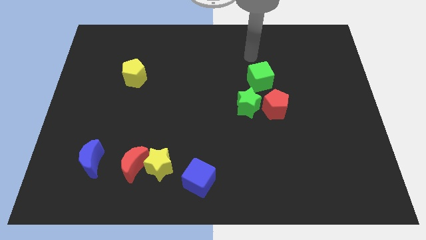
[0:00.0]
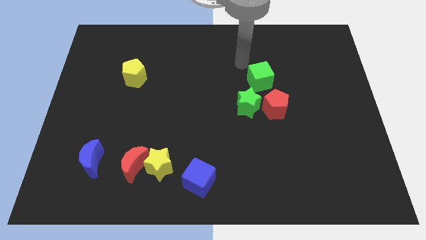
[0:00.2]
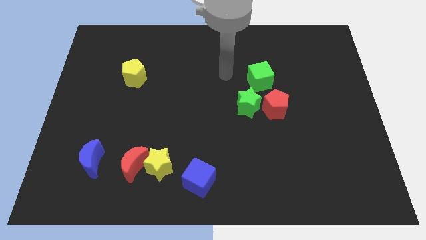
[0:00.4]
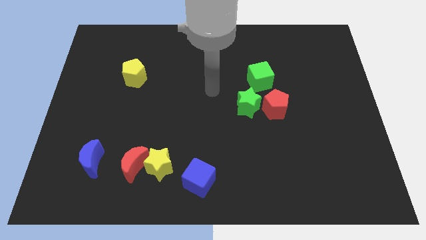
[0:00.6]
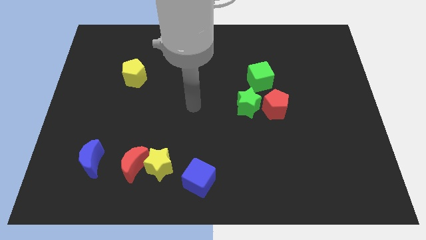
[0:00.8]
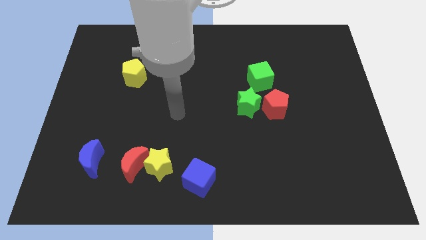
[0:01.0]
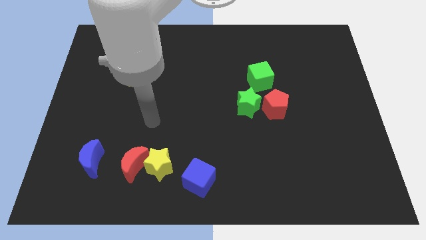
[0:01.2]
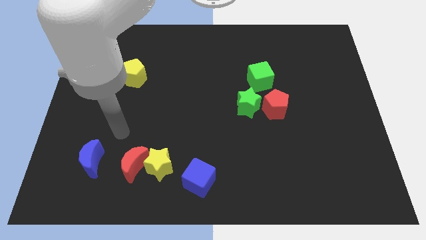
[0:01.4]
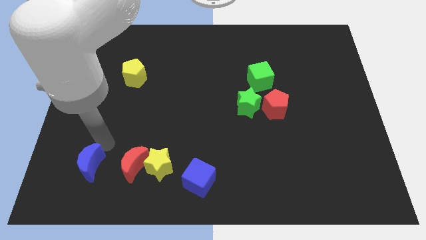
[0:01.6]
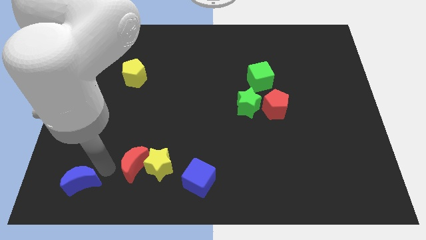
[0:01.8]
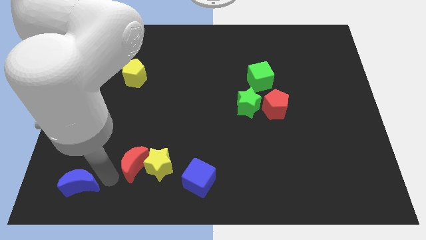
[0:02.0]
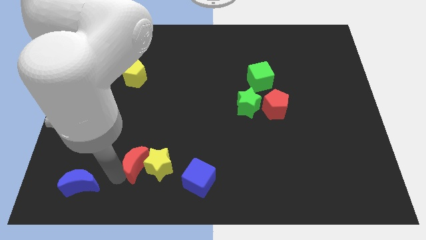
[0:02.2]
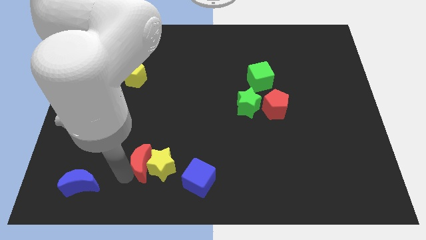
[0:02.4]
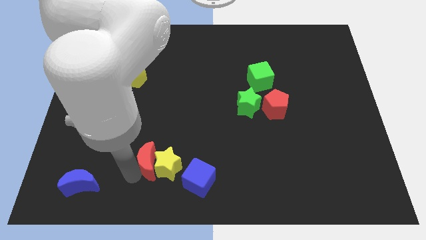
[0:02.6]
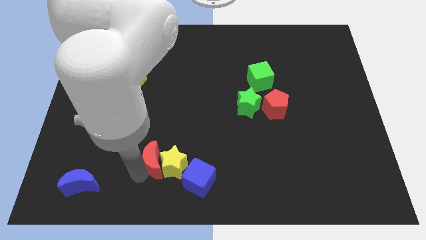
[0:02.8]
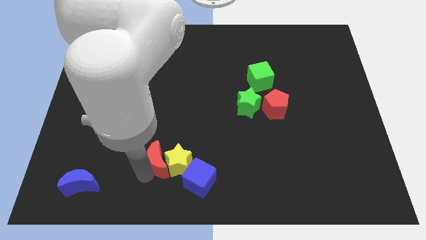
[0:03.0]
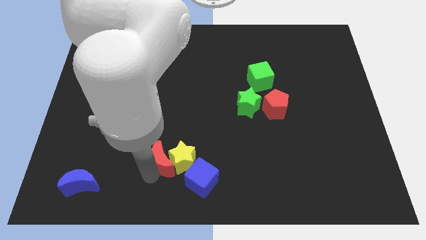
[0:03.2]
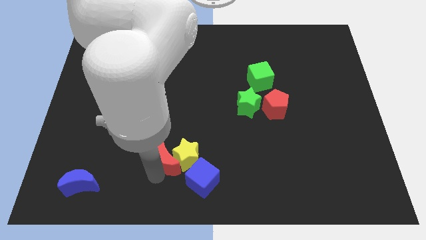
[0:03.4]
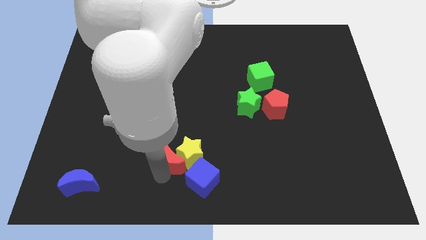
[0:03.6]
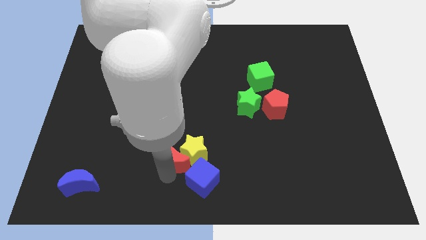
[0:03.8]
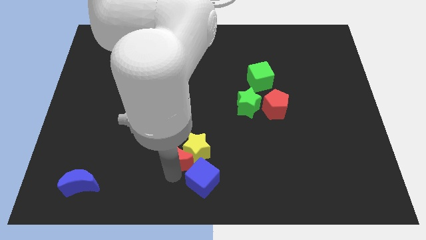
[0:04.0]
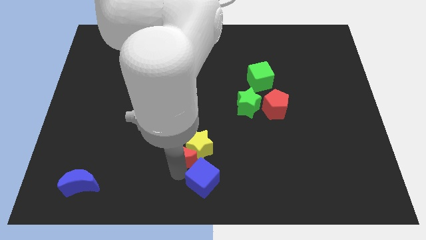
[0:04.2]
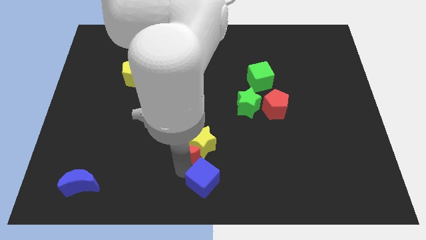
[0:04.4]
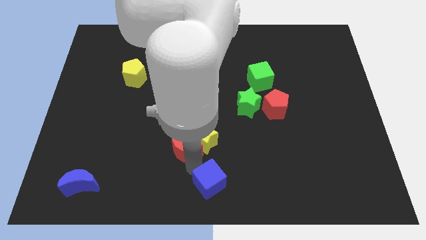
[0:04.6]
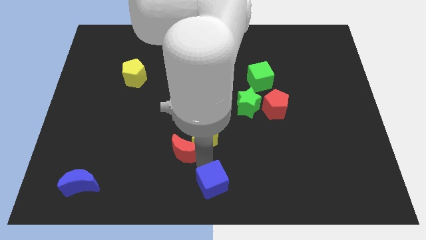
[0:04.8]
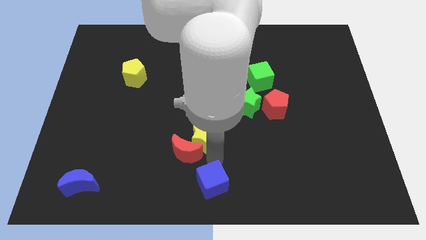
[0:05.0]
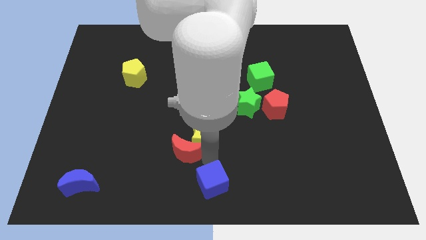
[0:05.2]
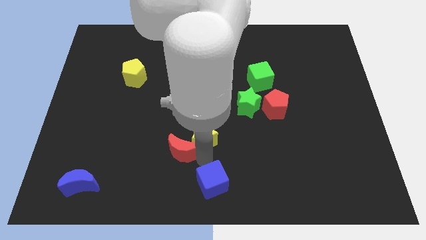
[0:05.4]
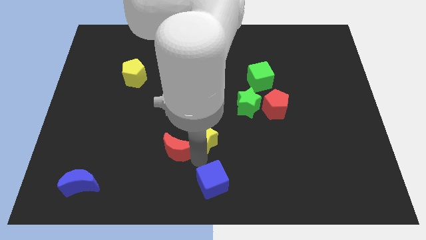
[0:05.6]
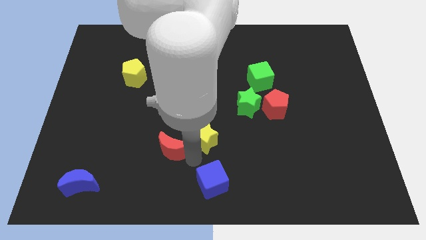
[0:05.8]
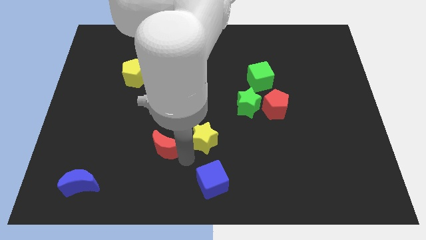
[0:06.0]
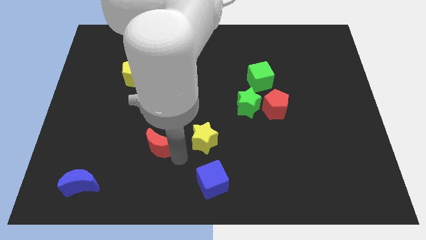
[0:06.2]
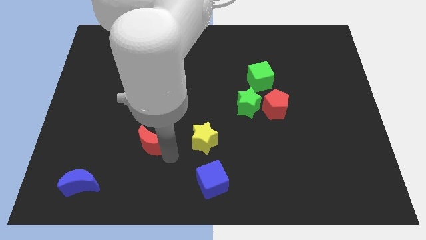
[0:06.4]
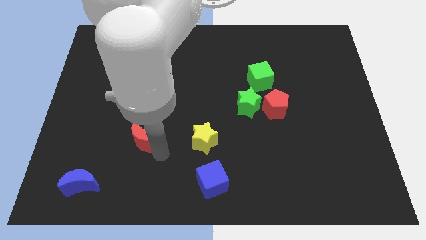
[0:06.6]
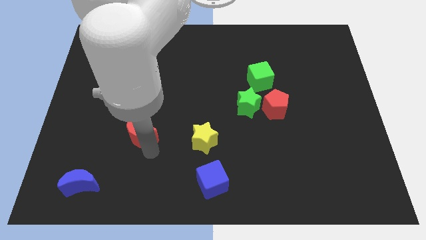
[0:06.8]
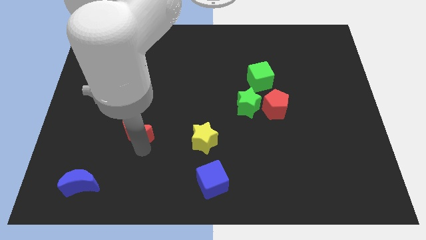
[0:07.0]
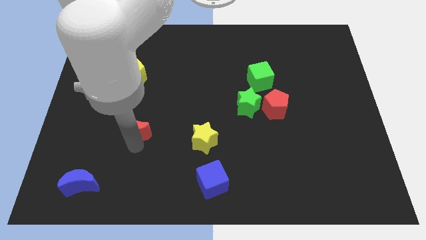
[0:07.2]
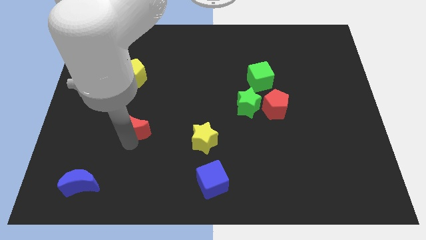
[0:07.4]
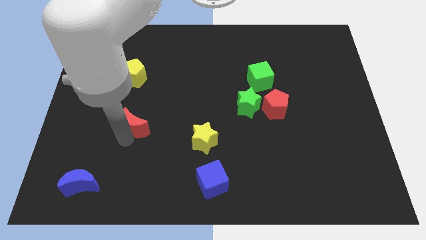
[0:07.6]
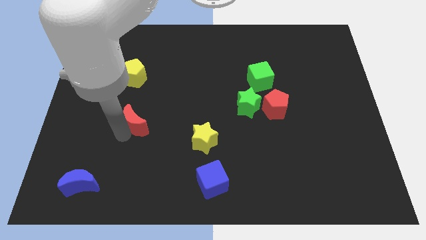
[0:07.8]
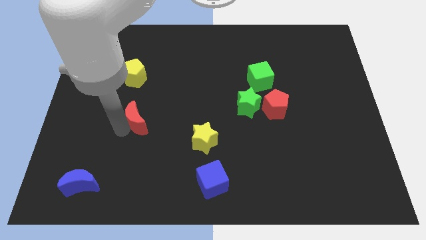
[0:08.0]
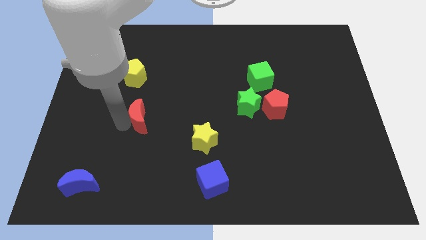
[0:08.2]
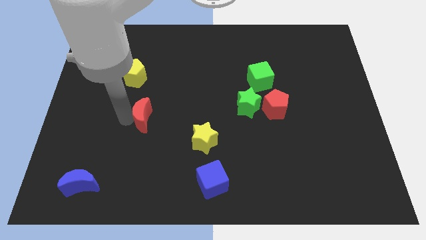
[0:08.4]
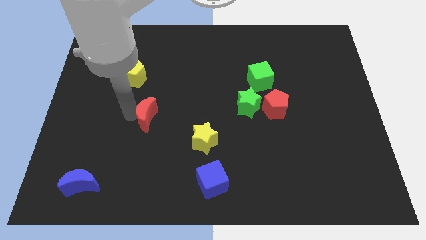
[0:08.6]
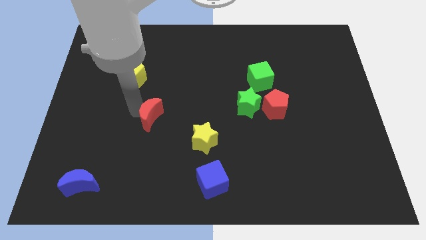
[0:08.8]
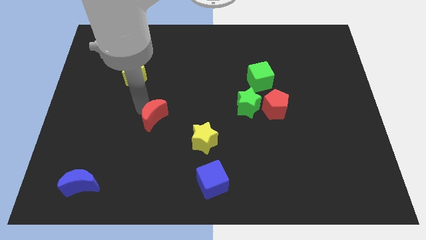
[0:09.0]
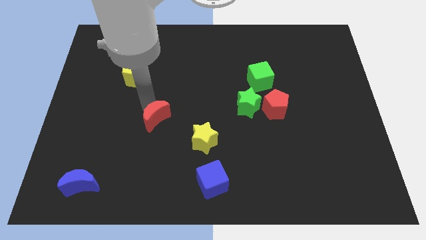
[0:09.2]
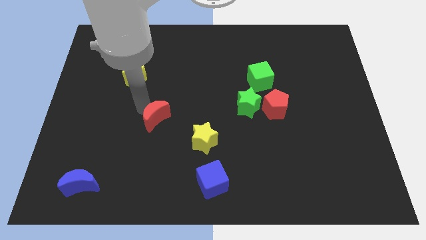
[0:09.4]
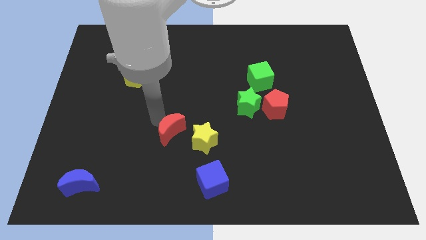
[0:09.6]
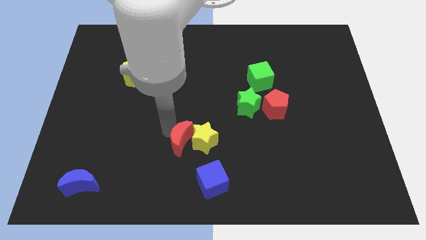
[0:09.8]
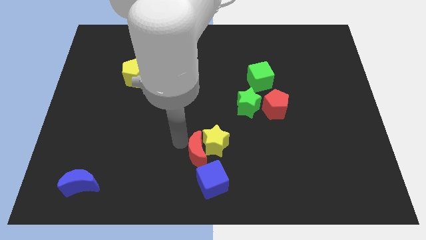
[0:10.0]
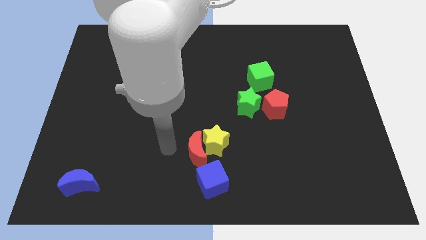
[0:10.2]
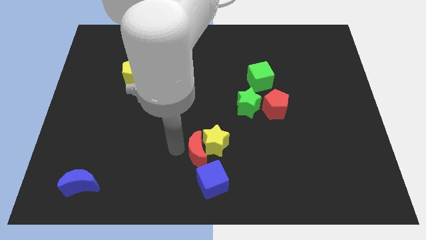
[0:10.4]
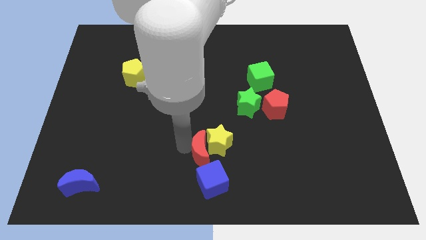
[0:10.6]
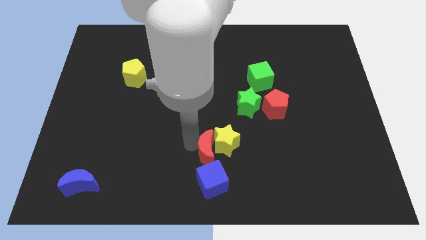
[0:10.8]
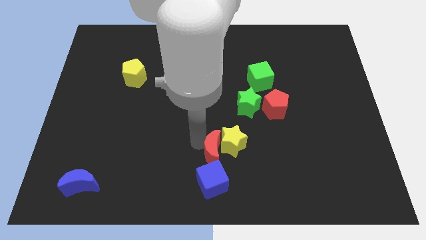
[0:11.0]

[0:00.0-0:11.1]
put the red moon to the top right side of the blue cube

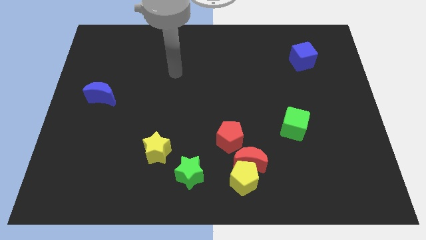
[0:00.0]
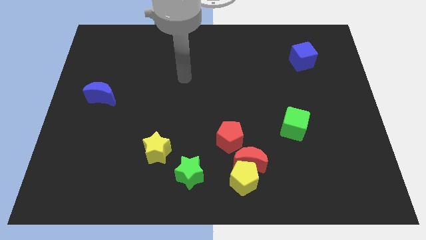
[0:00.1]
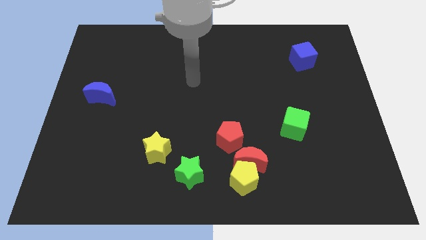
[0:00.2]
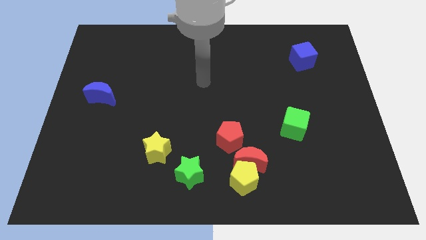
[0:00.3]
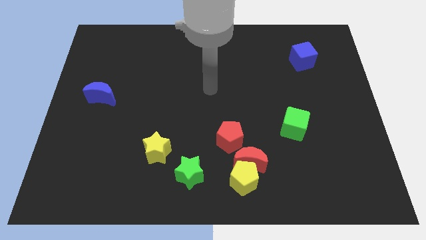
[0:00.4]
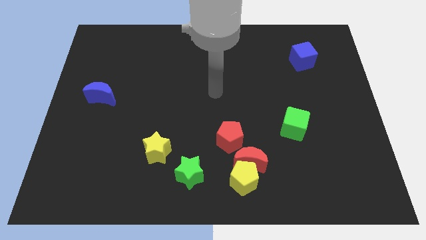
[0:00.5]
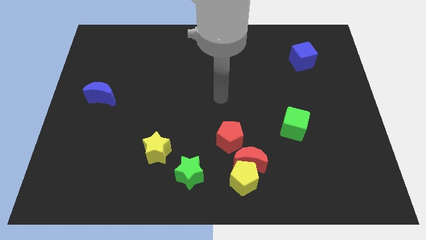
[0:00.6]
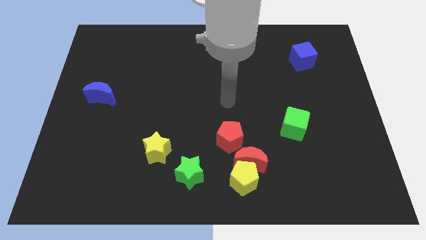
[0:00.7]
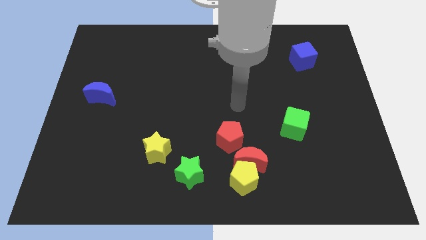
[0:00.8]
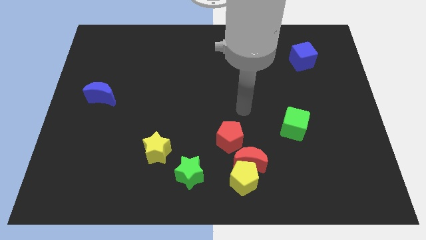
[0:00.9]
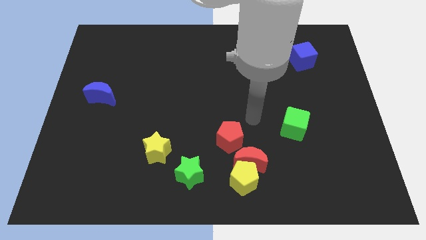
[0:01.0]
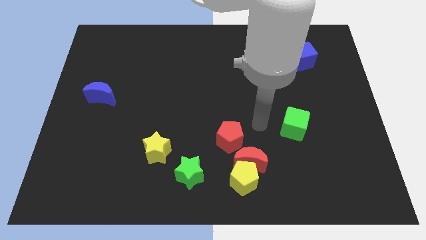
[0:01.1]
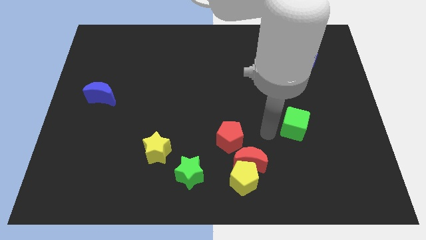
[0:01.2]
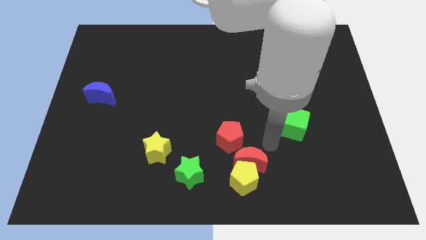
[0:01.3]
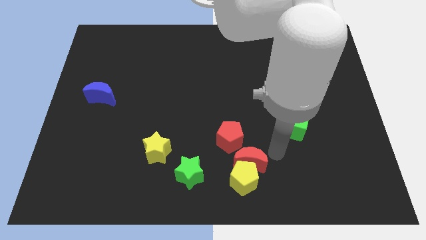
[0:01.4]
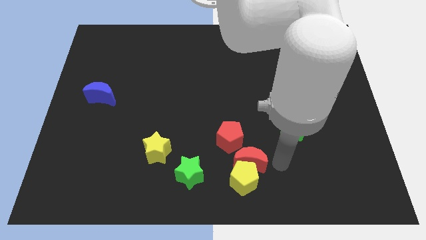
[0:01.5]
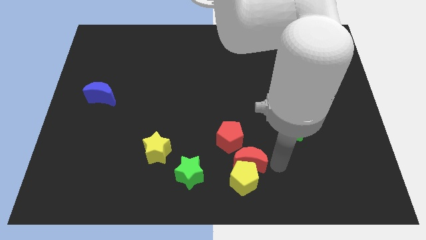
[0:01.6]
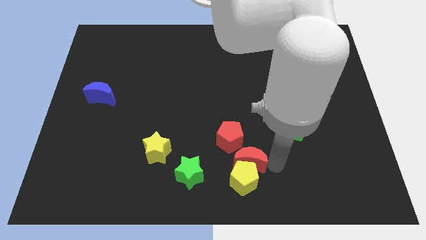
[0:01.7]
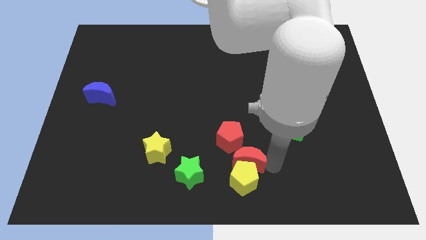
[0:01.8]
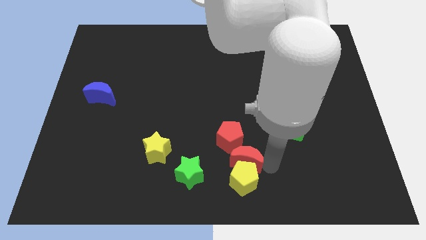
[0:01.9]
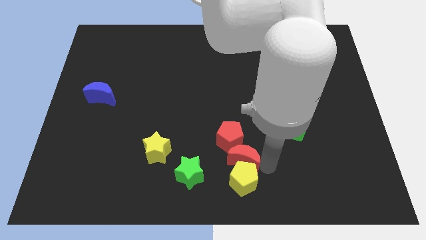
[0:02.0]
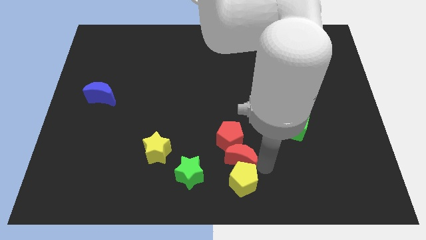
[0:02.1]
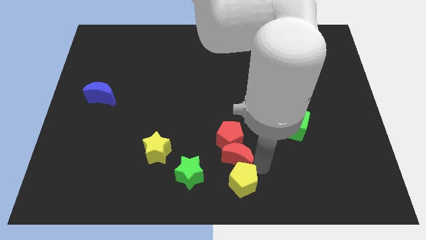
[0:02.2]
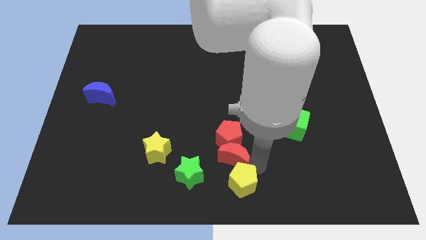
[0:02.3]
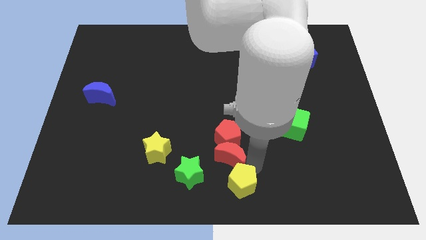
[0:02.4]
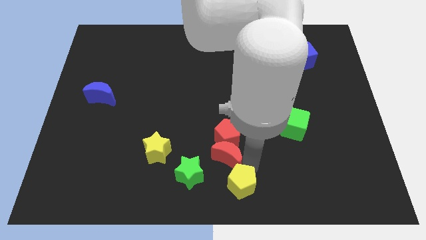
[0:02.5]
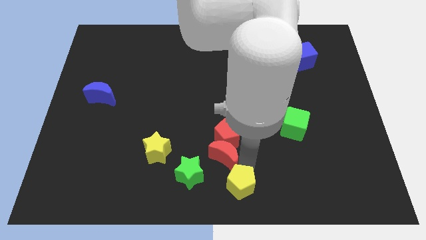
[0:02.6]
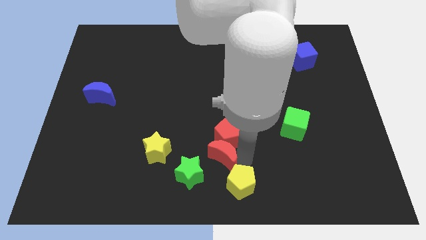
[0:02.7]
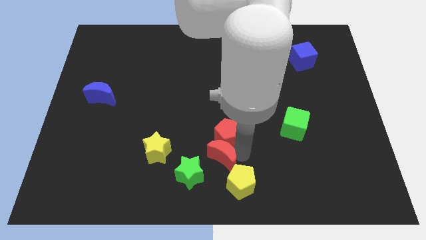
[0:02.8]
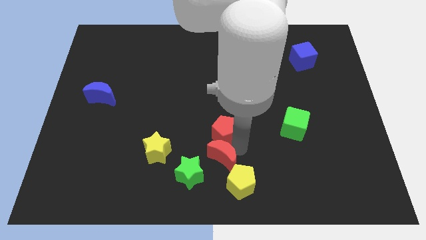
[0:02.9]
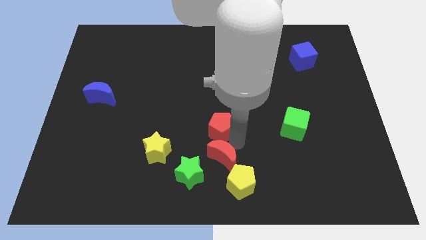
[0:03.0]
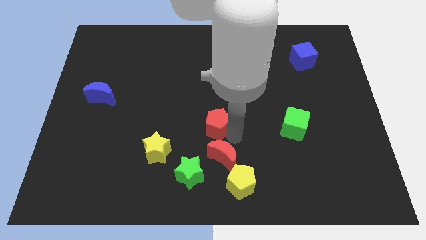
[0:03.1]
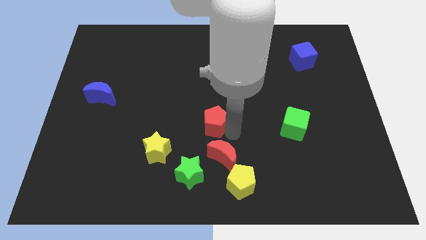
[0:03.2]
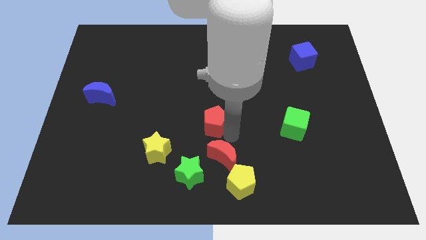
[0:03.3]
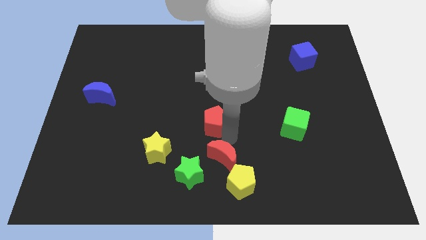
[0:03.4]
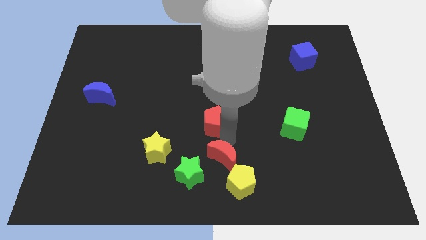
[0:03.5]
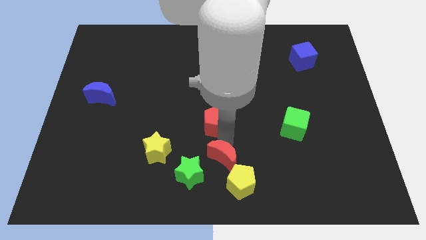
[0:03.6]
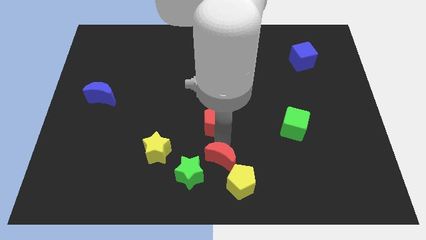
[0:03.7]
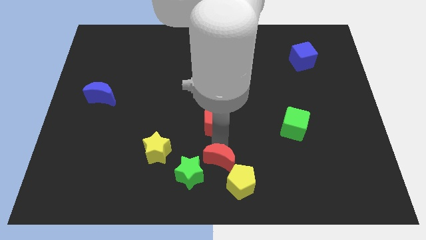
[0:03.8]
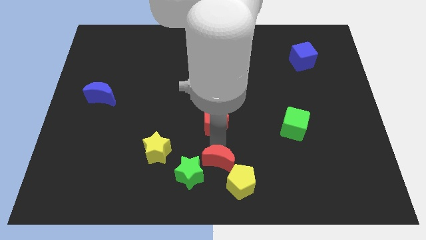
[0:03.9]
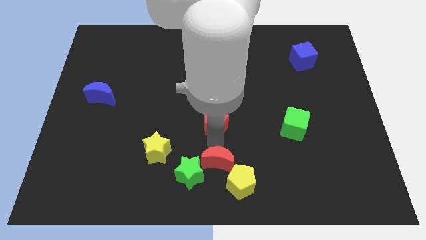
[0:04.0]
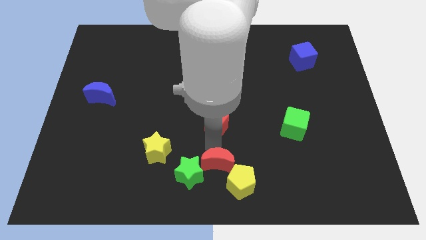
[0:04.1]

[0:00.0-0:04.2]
move the red moon to the left of the yellow pentagon
